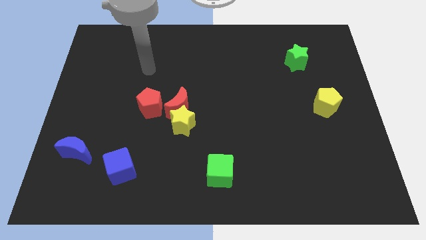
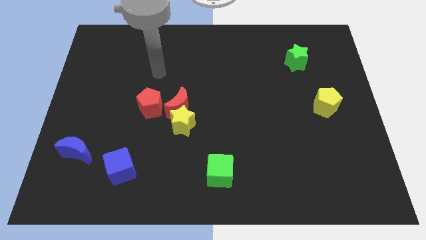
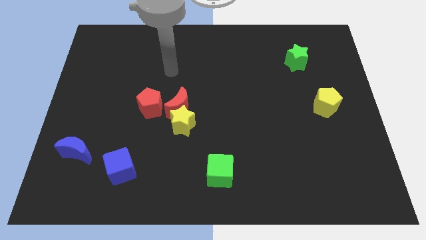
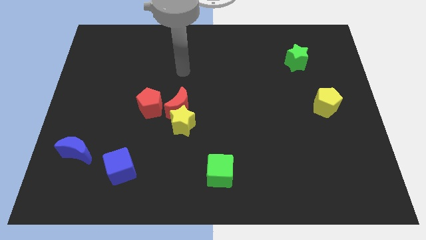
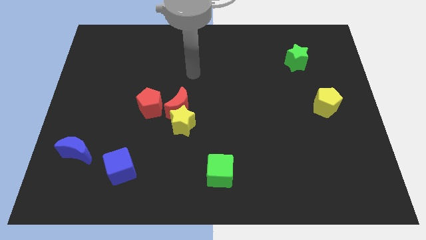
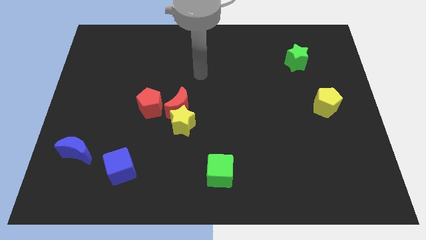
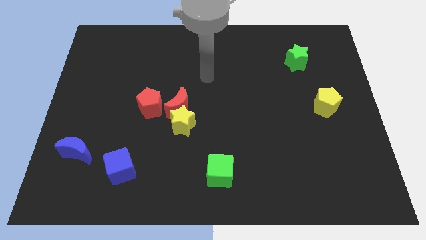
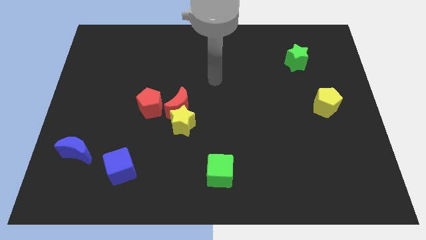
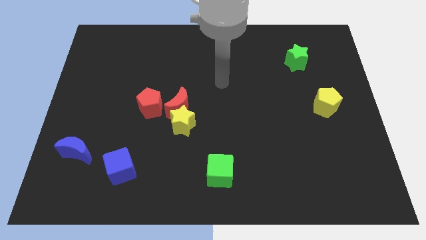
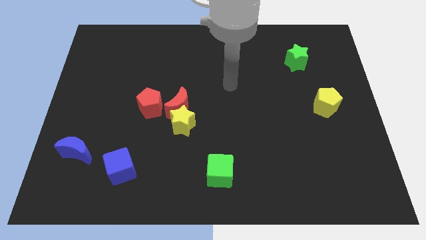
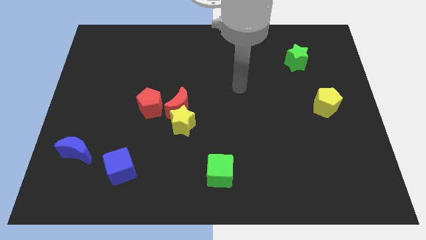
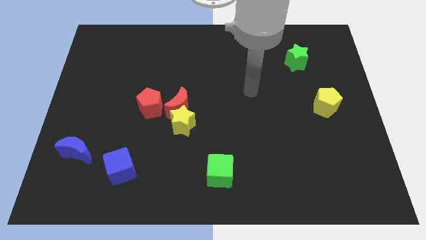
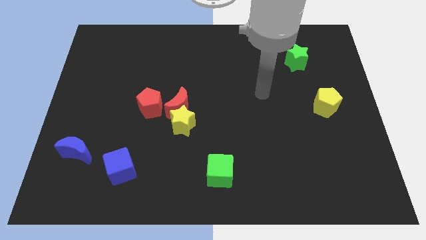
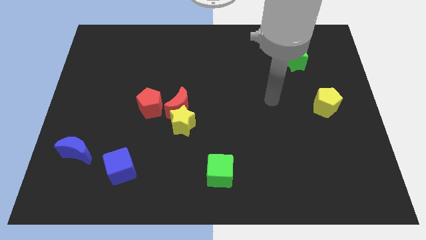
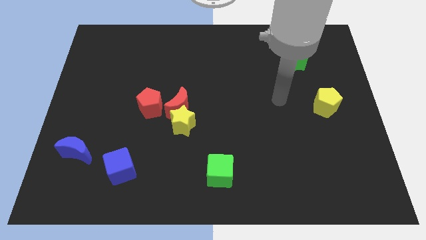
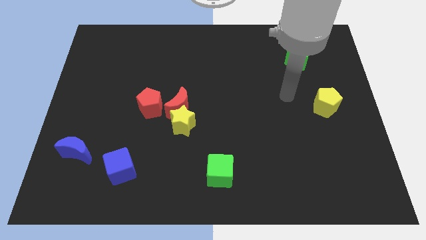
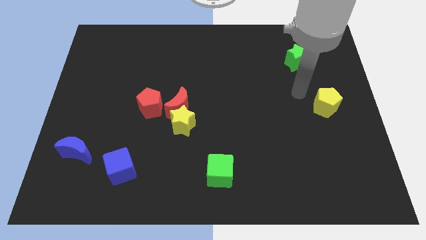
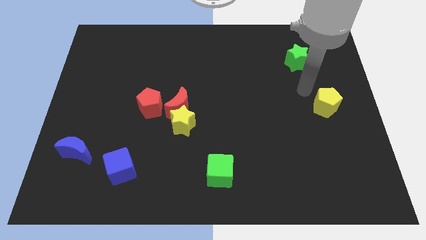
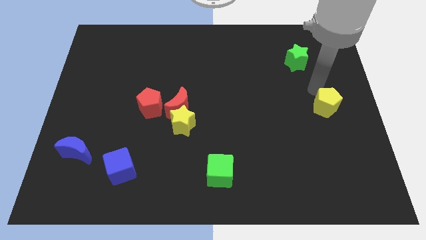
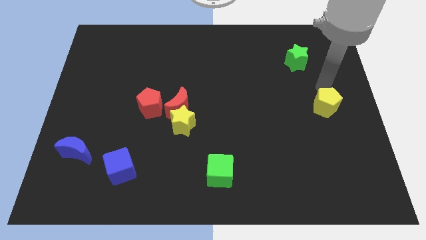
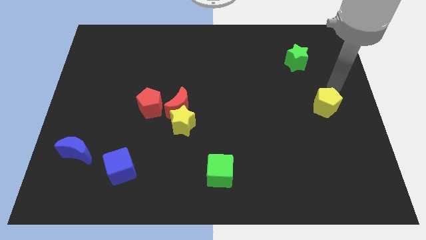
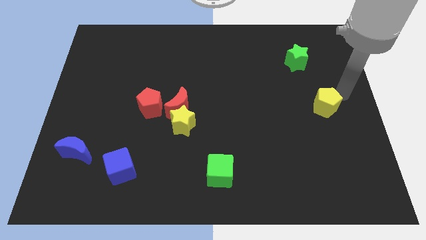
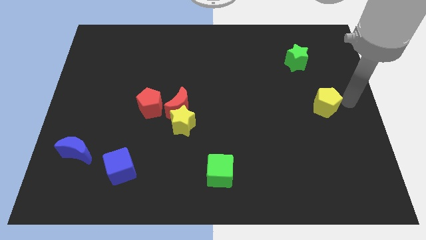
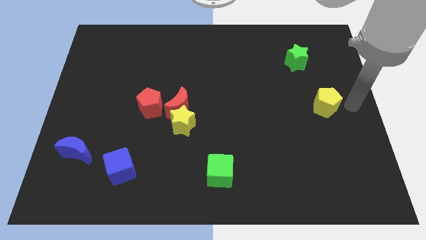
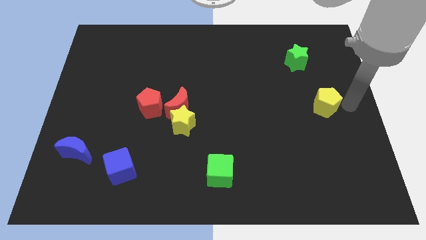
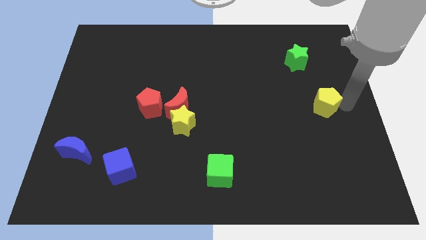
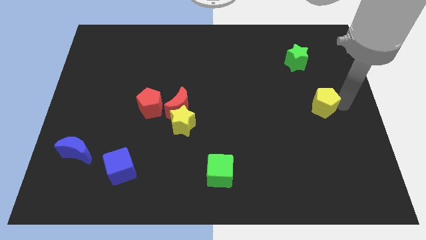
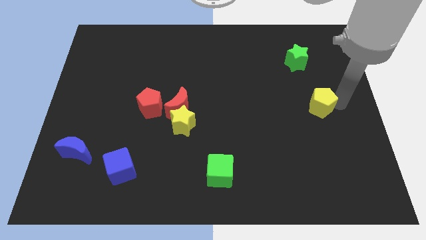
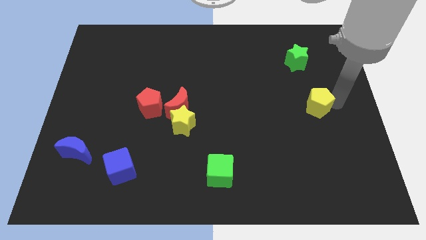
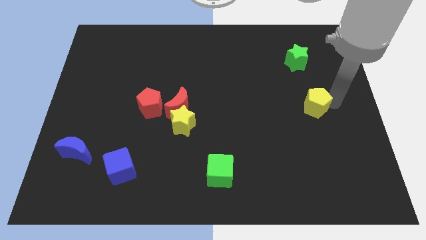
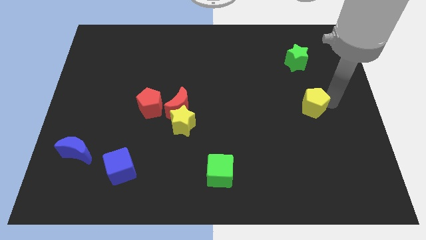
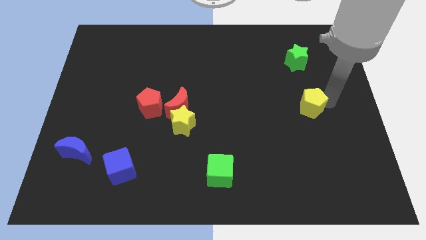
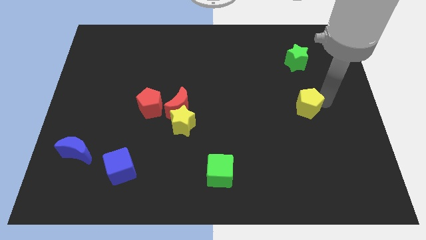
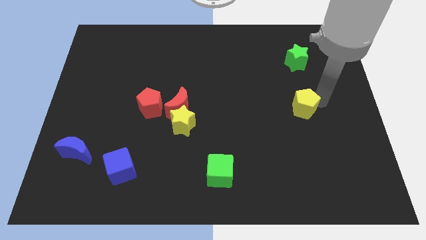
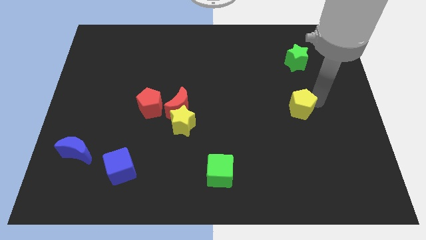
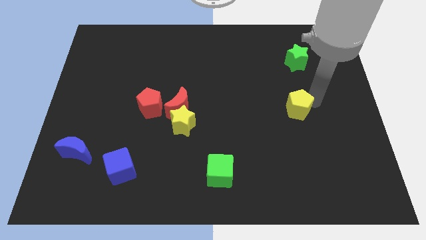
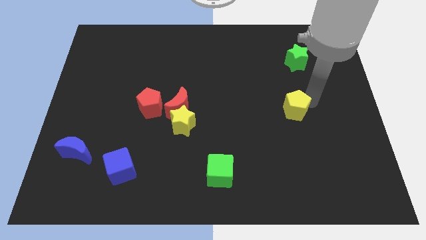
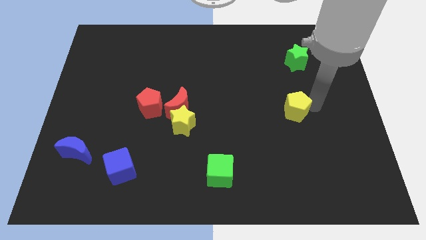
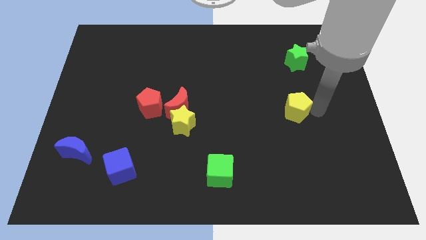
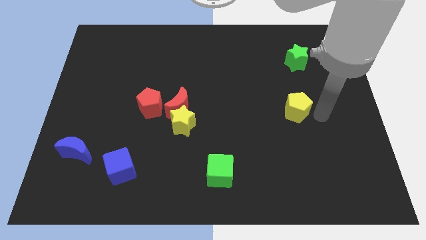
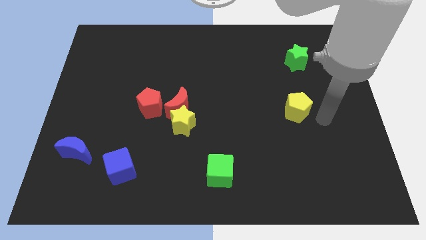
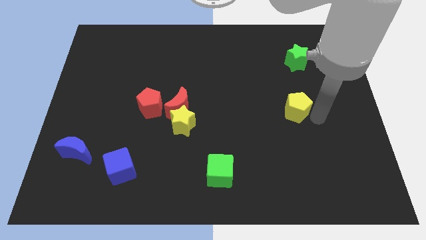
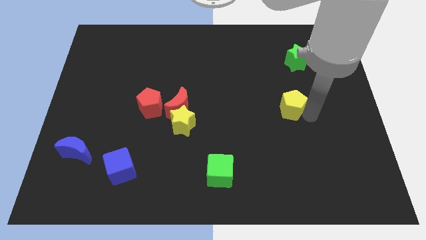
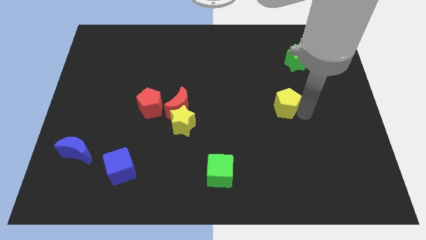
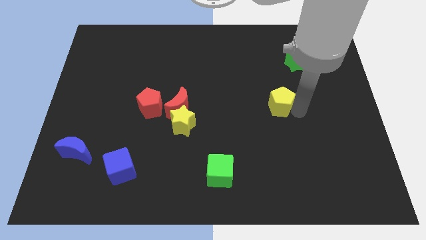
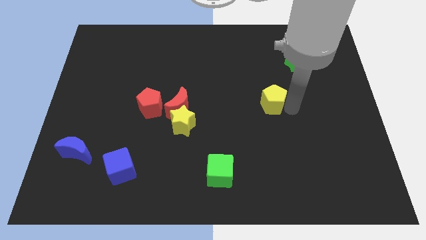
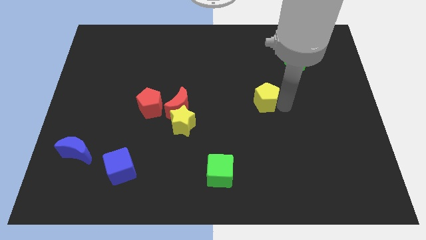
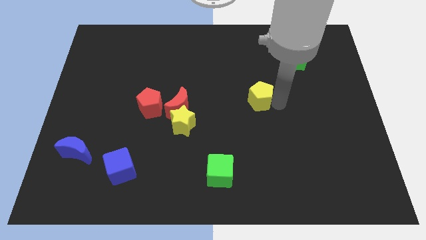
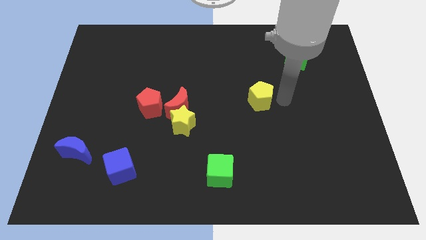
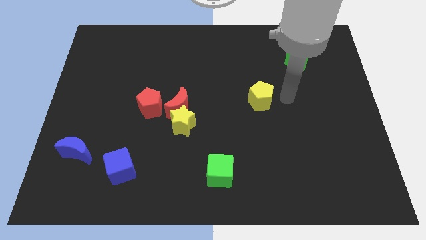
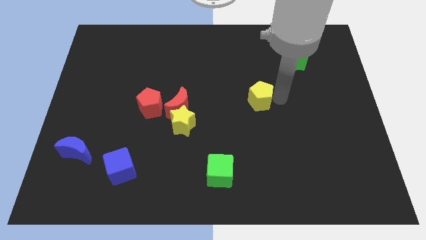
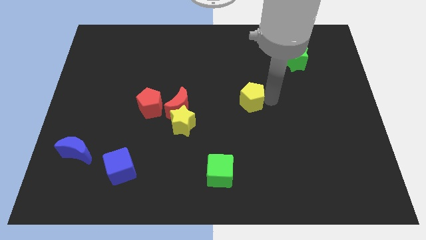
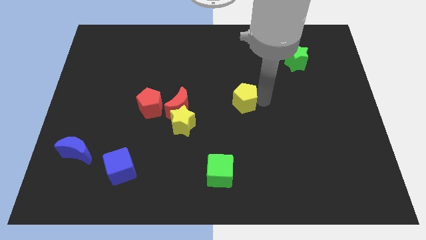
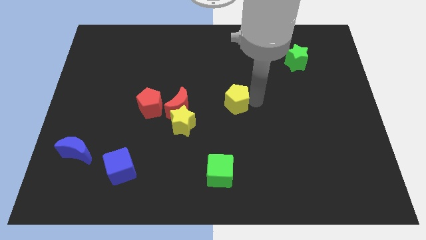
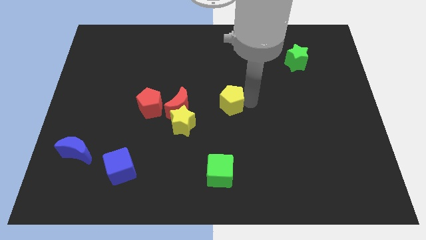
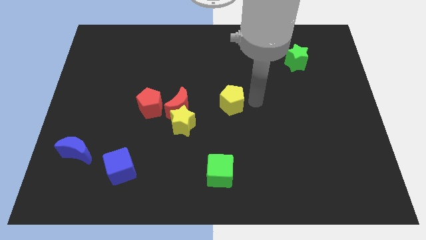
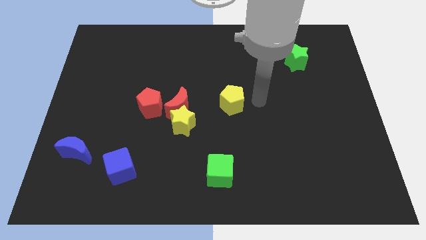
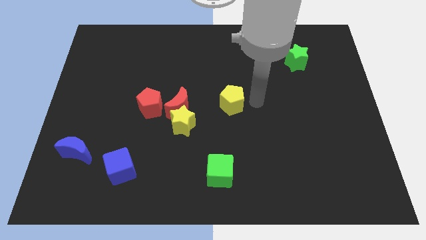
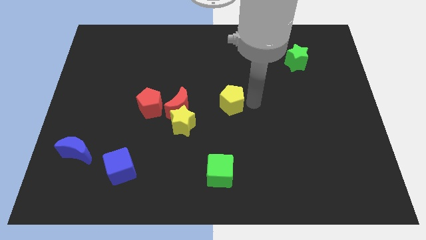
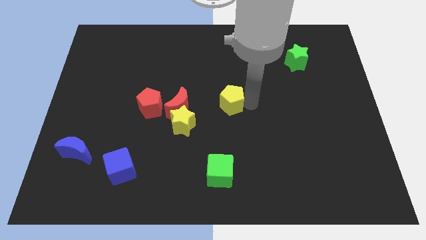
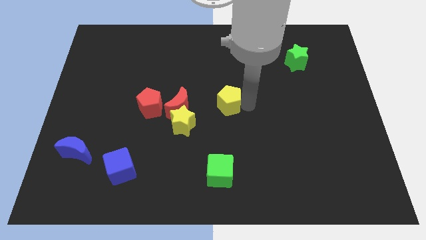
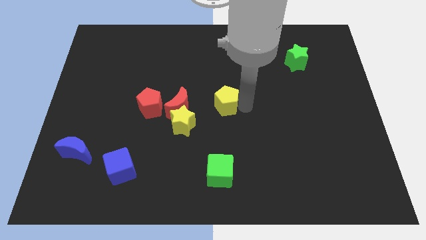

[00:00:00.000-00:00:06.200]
put the yellow pentagon diagonally up and to the right of the yellow star
